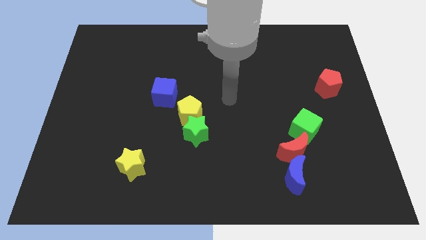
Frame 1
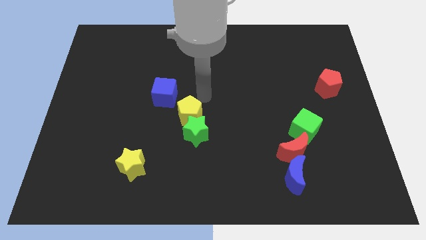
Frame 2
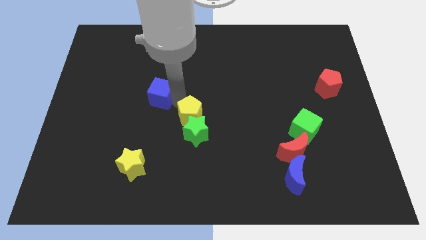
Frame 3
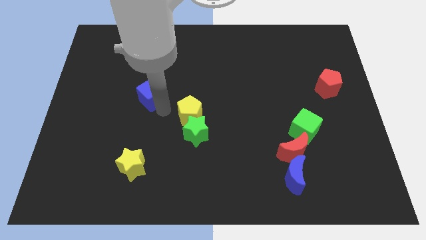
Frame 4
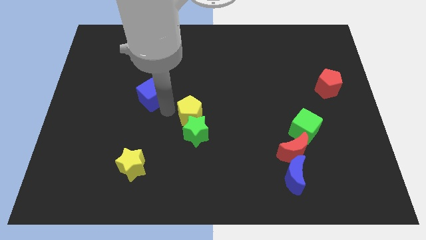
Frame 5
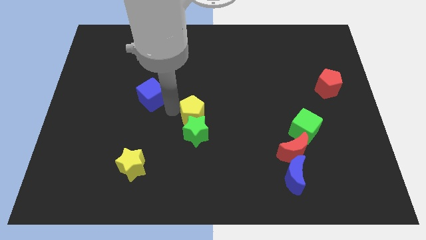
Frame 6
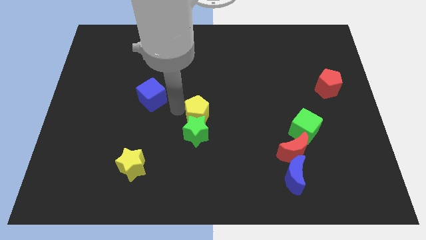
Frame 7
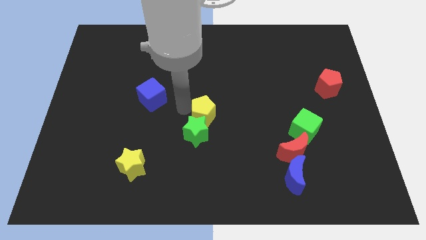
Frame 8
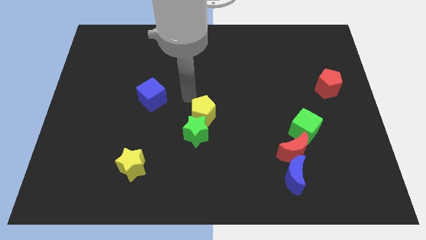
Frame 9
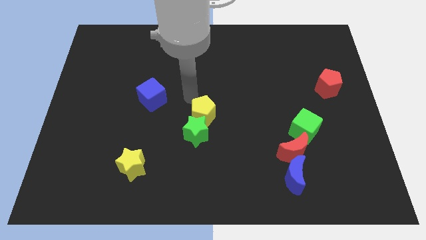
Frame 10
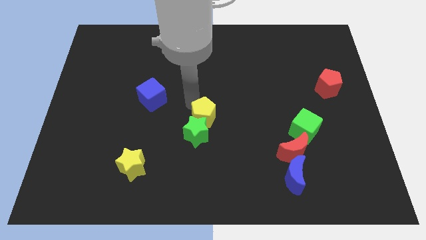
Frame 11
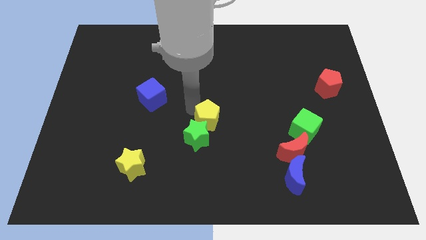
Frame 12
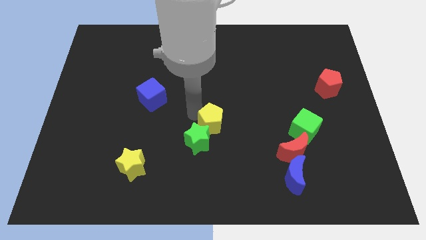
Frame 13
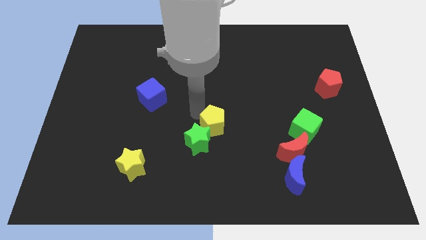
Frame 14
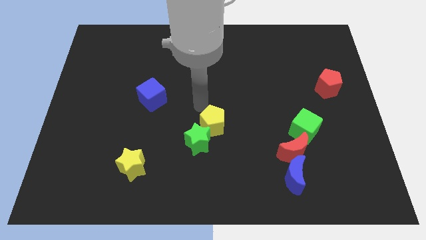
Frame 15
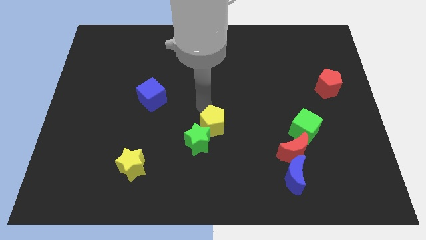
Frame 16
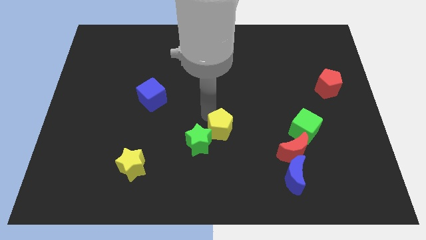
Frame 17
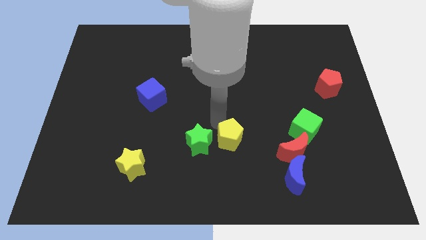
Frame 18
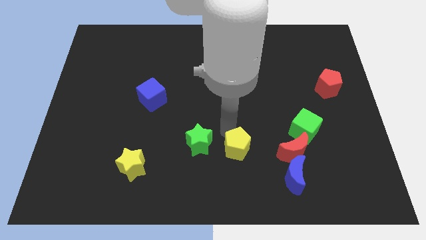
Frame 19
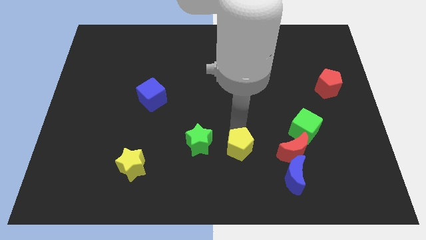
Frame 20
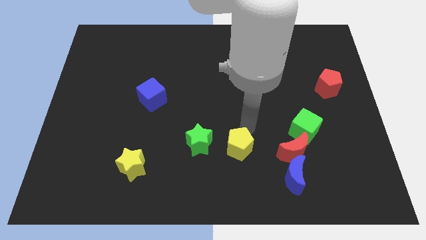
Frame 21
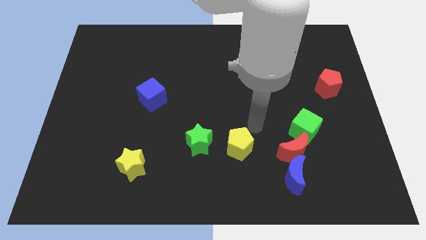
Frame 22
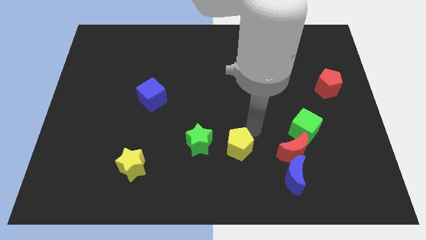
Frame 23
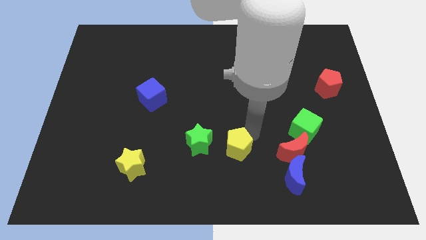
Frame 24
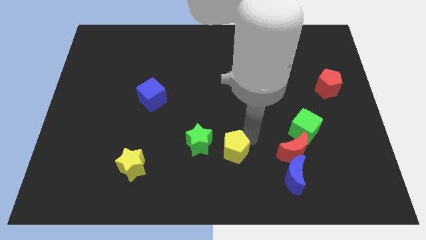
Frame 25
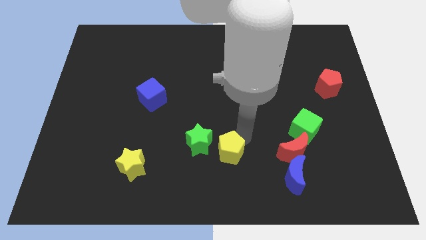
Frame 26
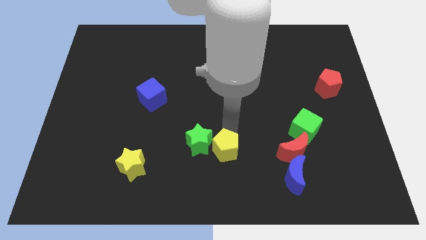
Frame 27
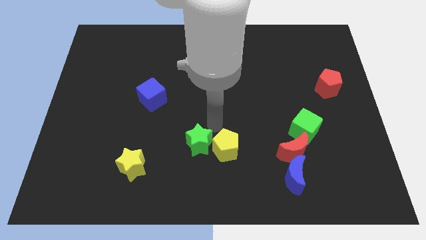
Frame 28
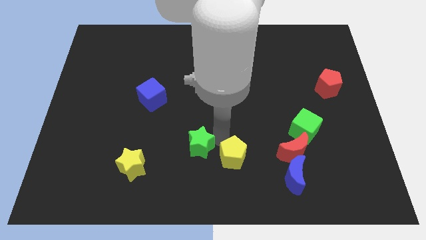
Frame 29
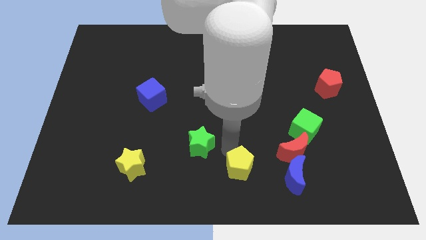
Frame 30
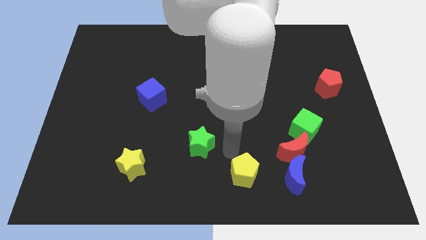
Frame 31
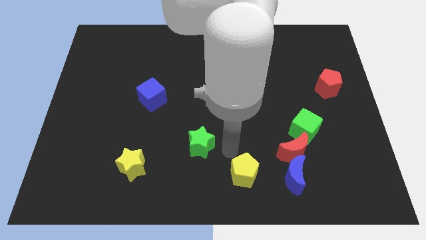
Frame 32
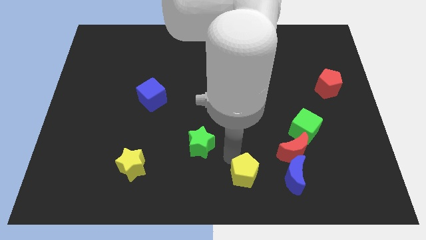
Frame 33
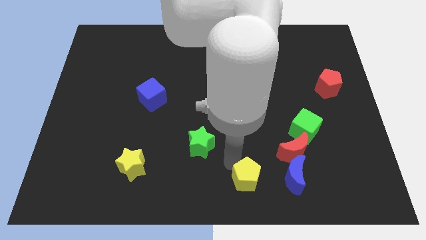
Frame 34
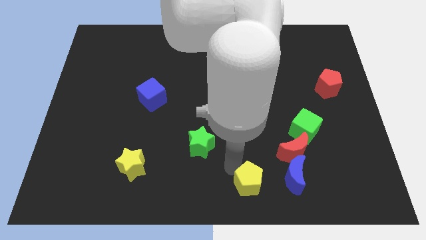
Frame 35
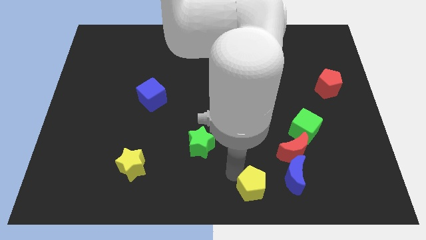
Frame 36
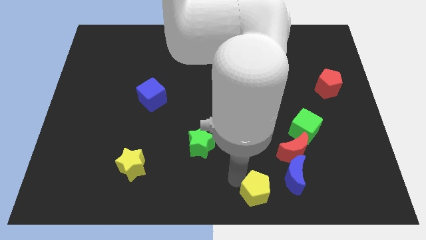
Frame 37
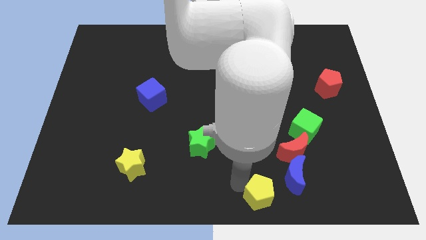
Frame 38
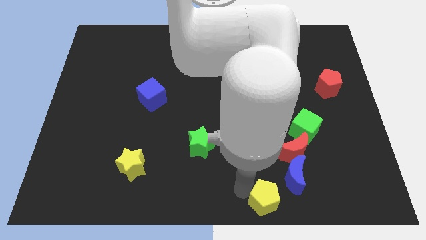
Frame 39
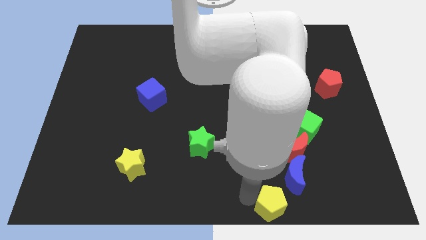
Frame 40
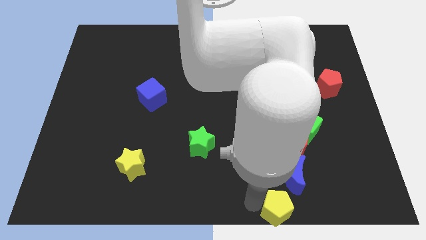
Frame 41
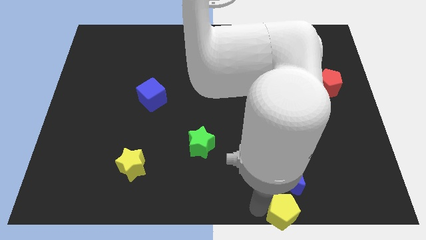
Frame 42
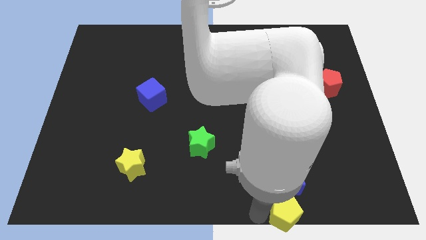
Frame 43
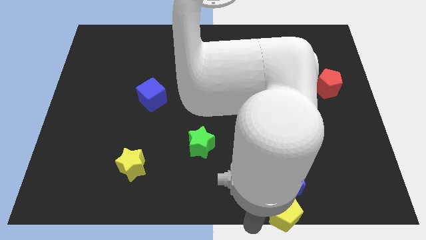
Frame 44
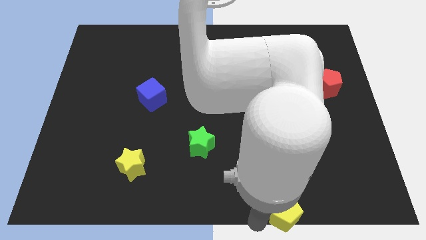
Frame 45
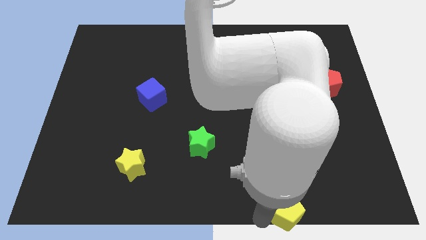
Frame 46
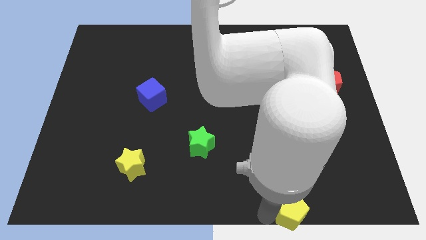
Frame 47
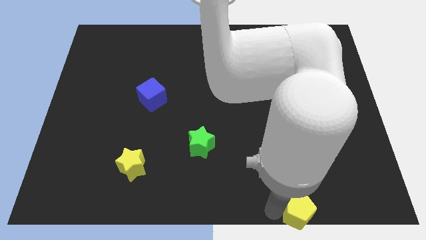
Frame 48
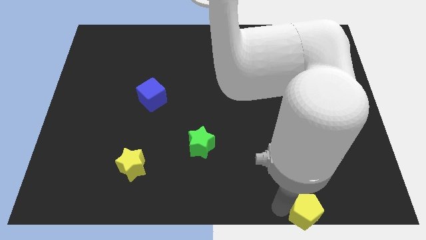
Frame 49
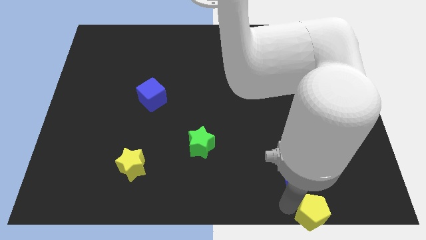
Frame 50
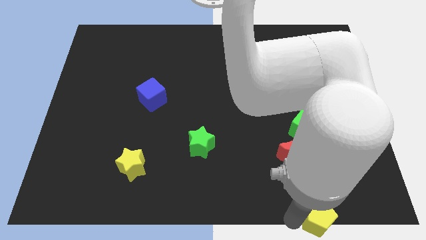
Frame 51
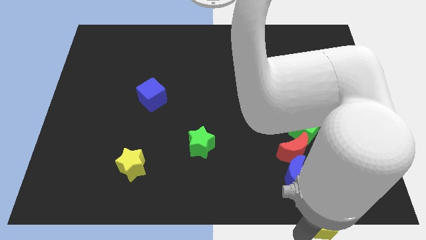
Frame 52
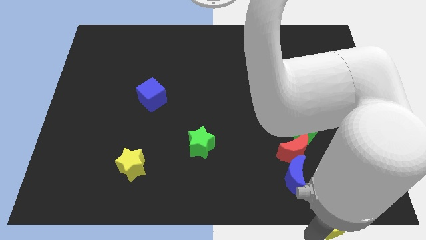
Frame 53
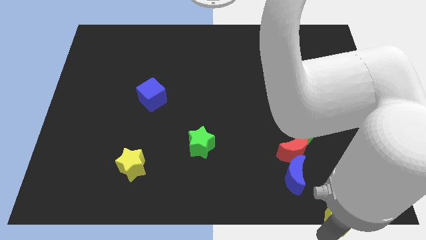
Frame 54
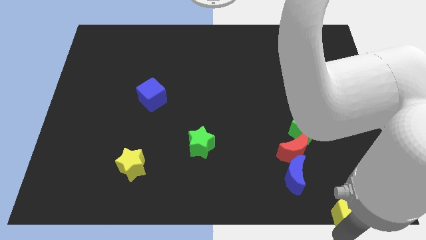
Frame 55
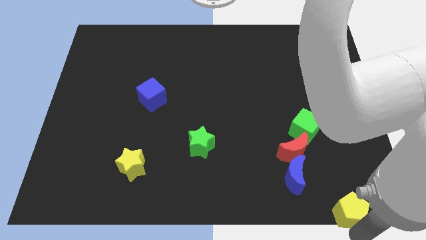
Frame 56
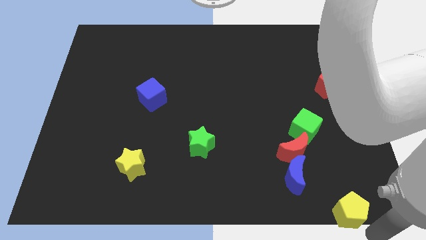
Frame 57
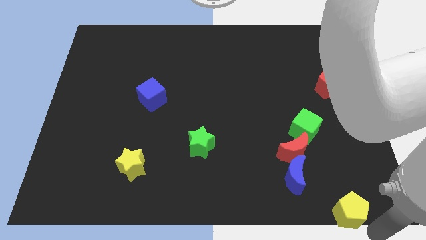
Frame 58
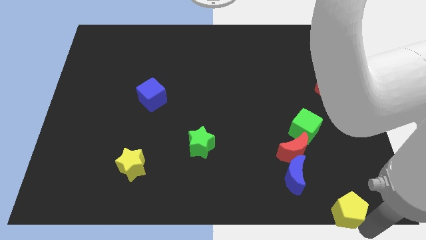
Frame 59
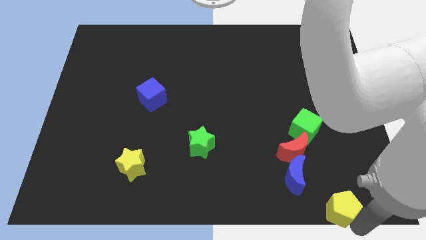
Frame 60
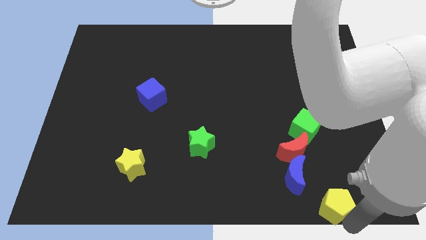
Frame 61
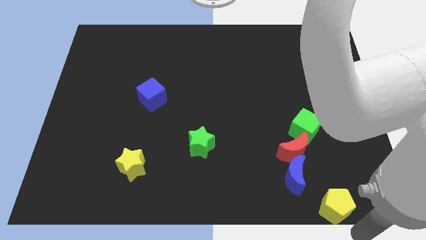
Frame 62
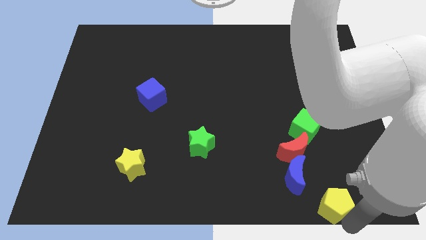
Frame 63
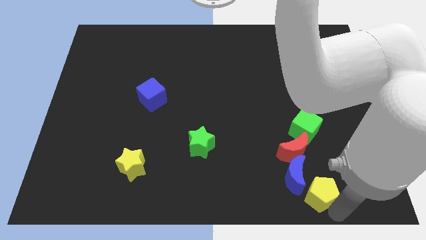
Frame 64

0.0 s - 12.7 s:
slide the yellow pentagon to the bottom of the green cube

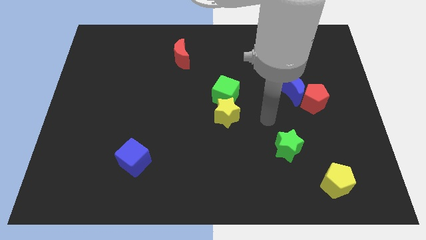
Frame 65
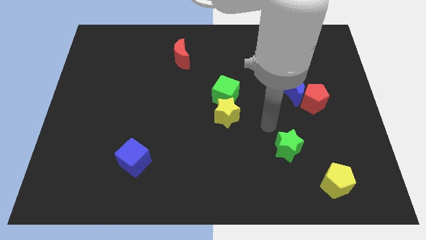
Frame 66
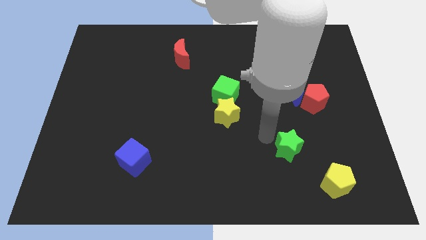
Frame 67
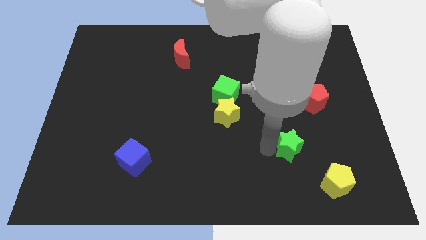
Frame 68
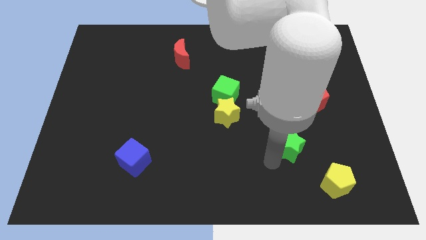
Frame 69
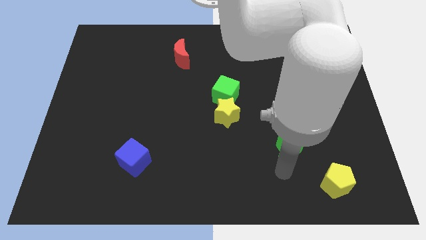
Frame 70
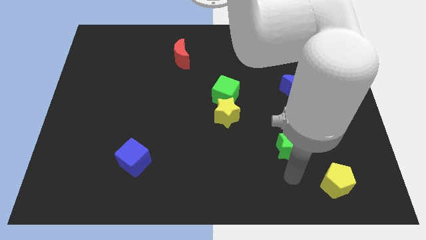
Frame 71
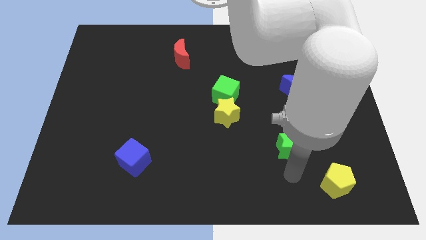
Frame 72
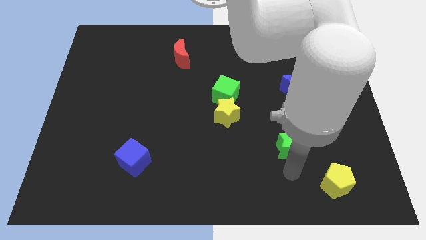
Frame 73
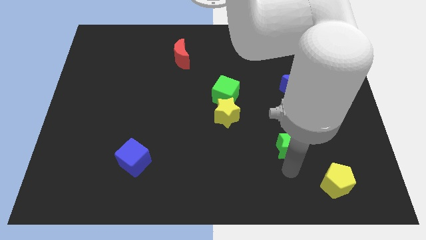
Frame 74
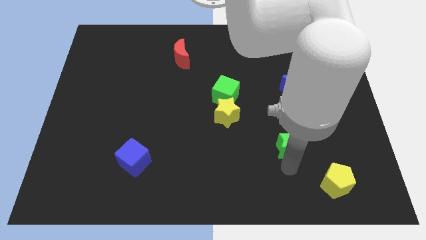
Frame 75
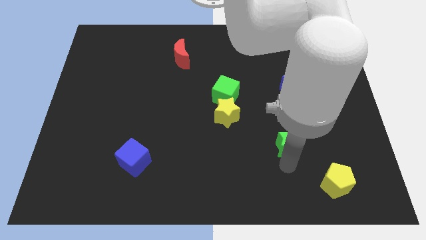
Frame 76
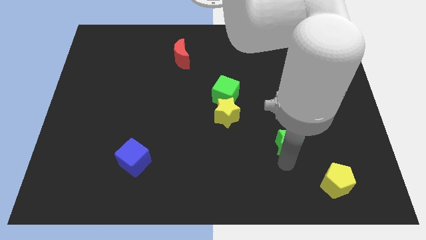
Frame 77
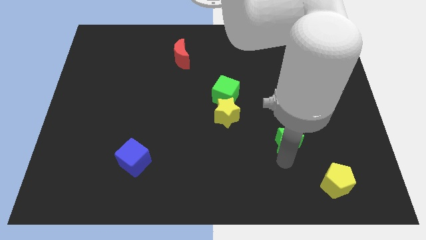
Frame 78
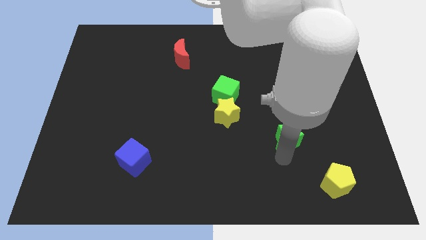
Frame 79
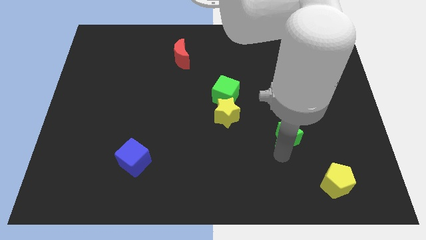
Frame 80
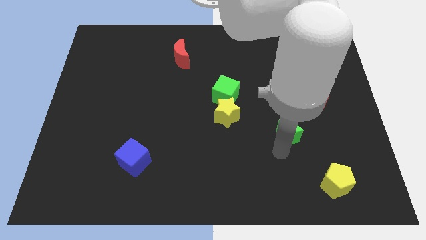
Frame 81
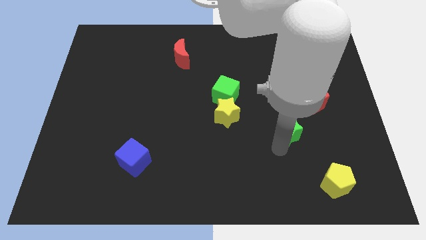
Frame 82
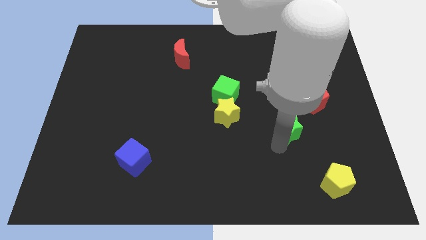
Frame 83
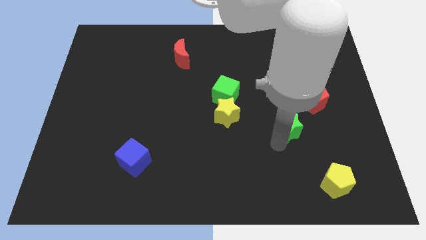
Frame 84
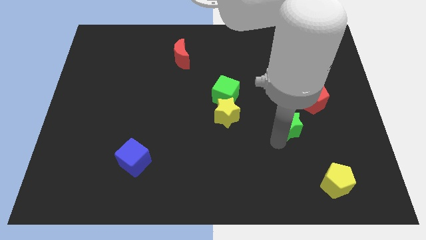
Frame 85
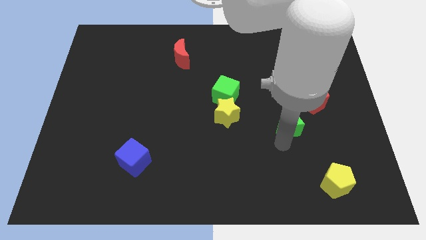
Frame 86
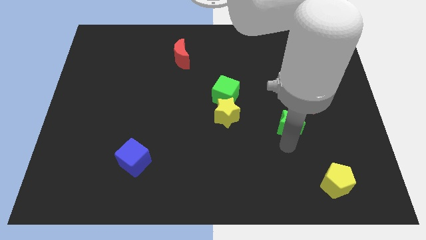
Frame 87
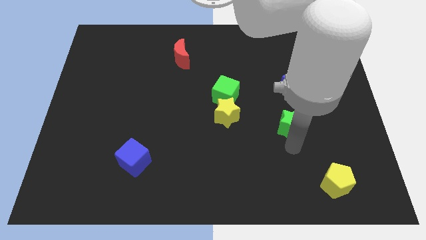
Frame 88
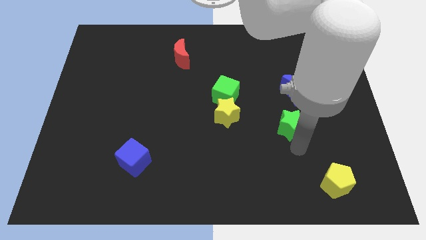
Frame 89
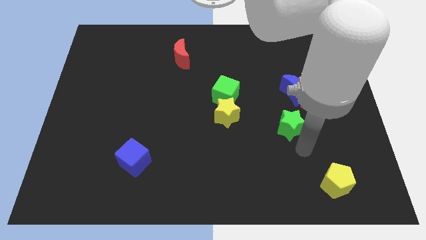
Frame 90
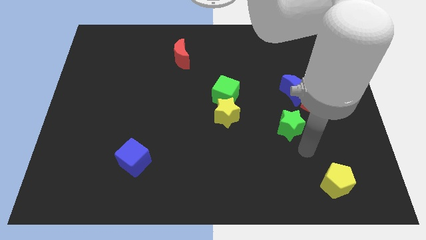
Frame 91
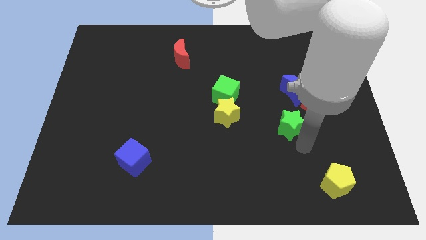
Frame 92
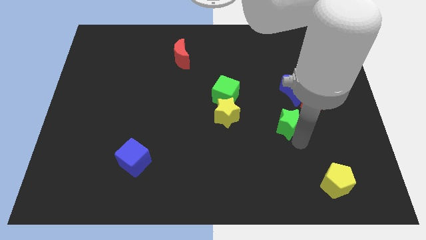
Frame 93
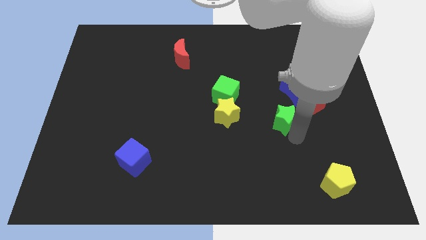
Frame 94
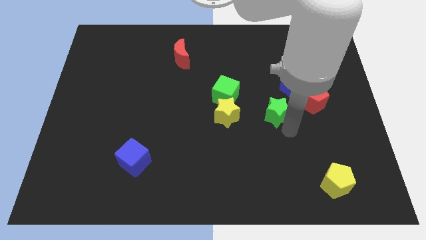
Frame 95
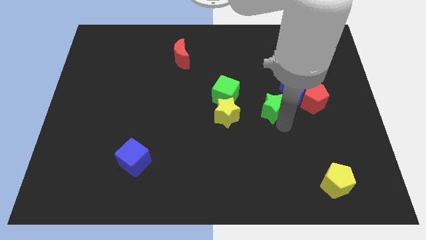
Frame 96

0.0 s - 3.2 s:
push the green star to the right of the green cube
